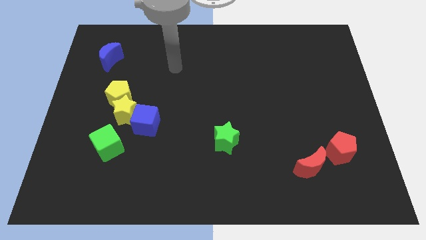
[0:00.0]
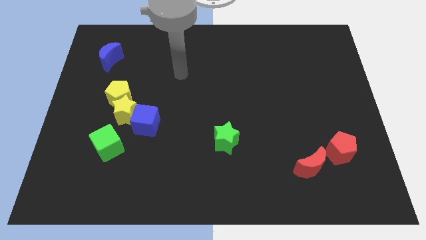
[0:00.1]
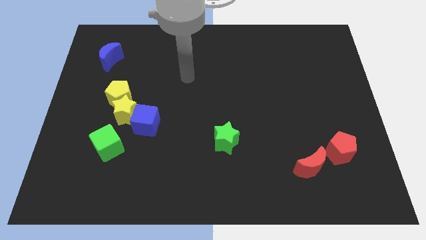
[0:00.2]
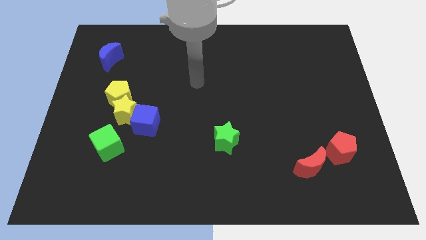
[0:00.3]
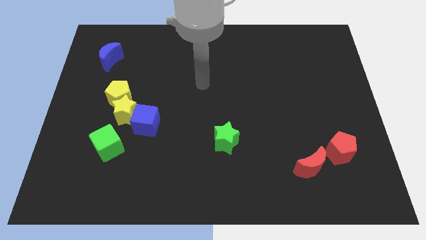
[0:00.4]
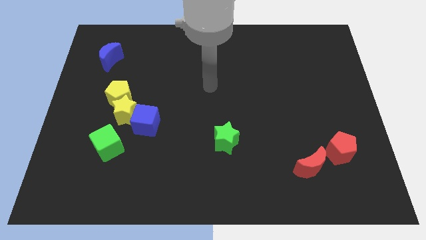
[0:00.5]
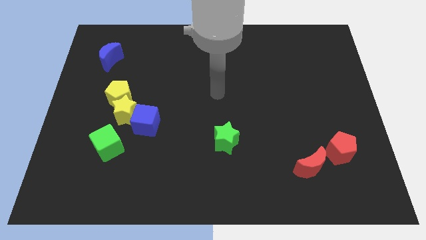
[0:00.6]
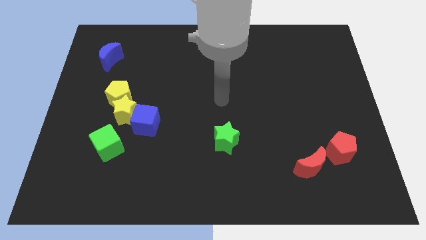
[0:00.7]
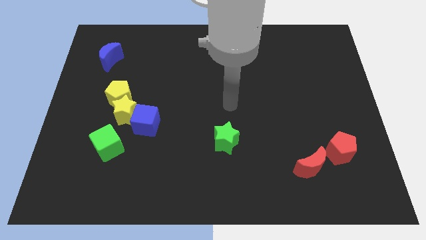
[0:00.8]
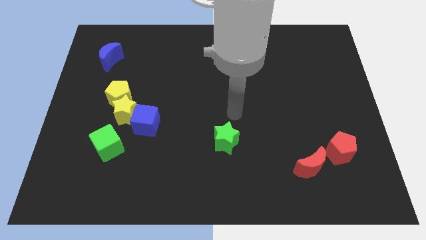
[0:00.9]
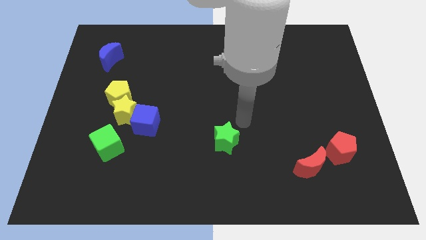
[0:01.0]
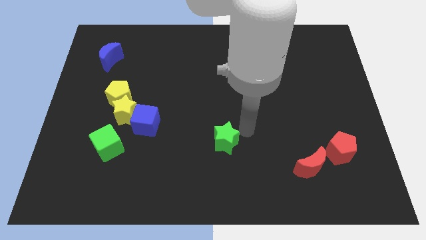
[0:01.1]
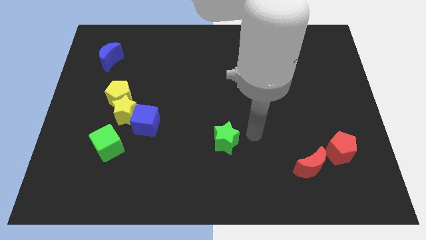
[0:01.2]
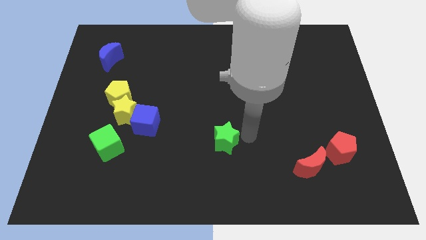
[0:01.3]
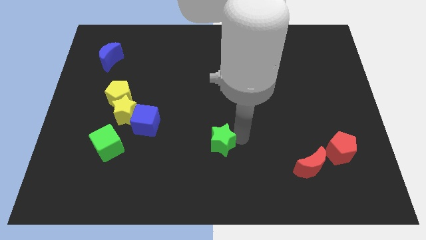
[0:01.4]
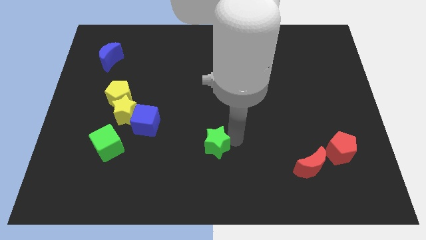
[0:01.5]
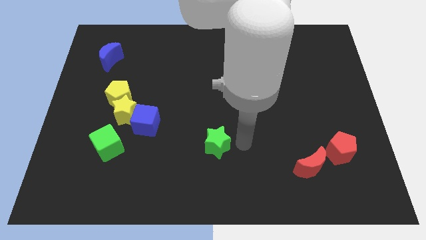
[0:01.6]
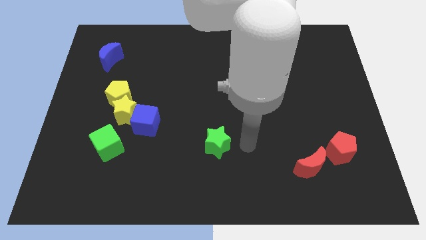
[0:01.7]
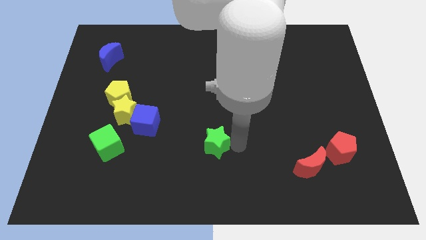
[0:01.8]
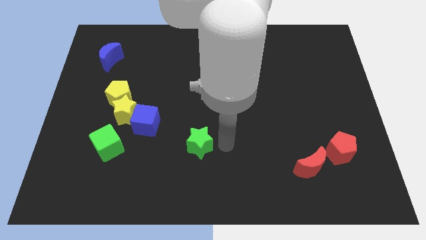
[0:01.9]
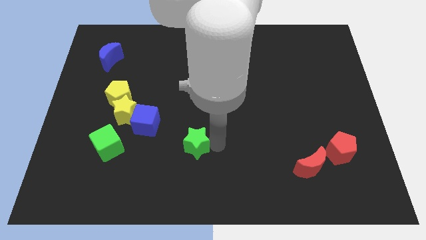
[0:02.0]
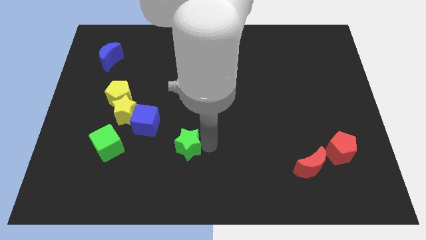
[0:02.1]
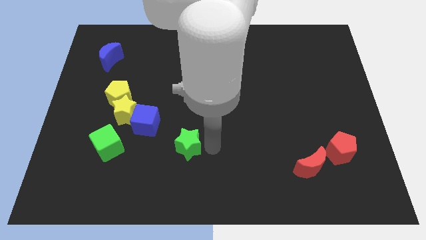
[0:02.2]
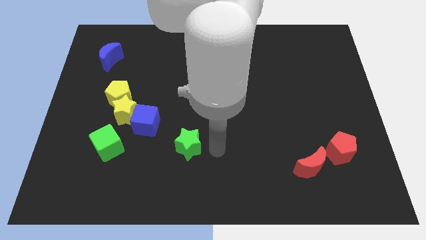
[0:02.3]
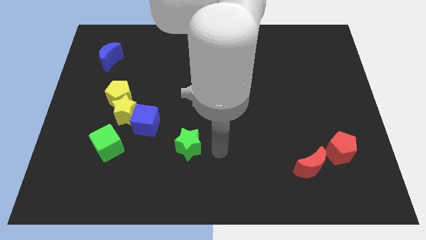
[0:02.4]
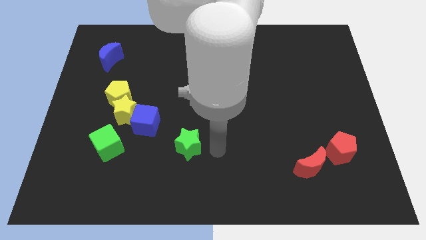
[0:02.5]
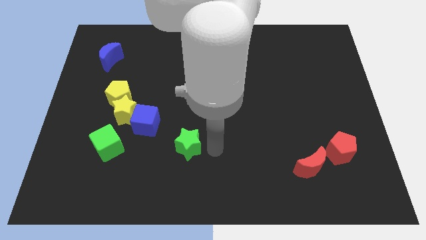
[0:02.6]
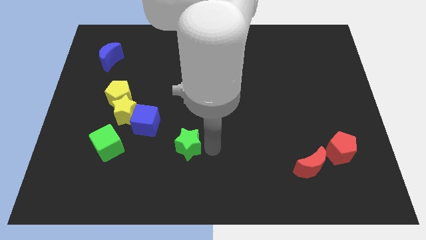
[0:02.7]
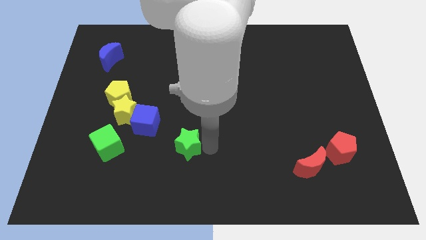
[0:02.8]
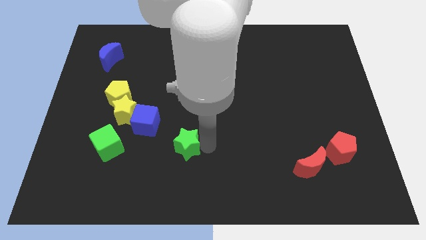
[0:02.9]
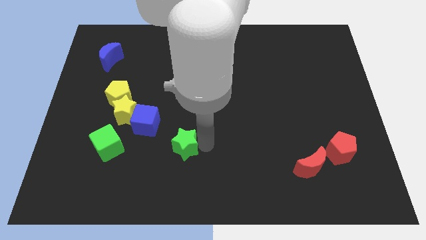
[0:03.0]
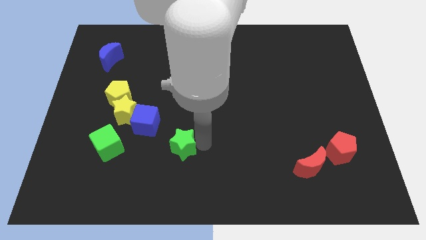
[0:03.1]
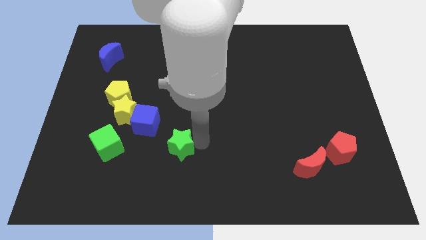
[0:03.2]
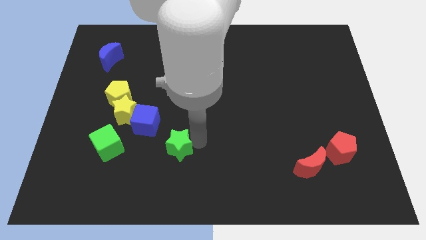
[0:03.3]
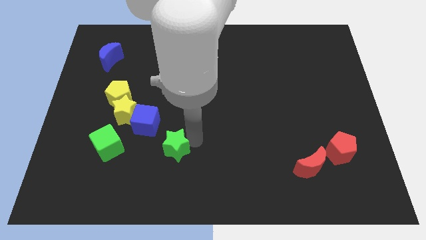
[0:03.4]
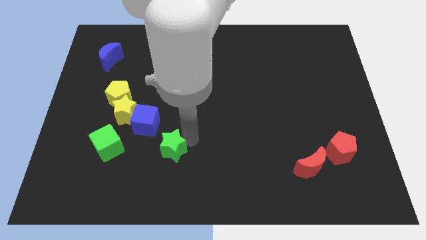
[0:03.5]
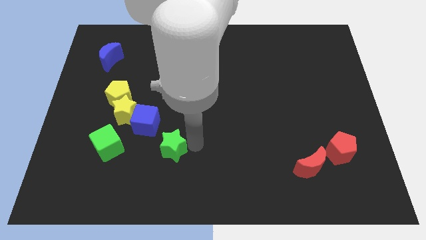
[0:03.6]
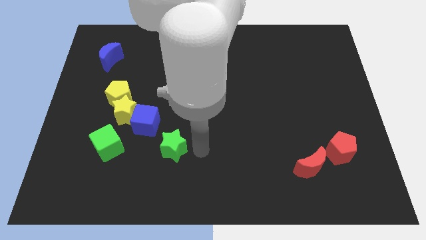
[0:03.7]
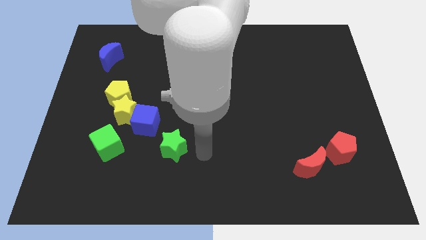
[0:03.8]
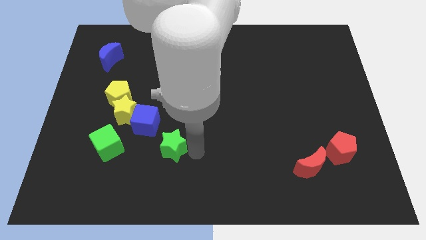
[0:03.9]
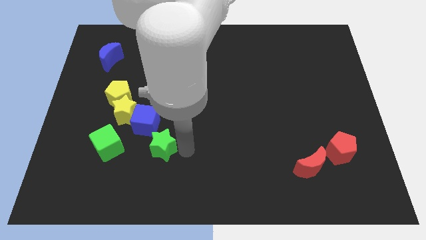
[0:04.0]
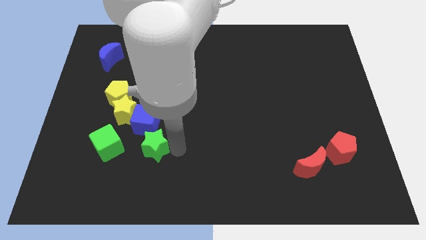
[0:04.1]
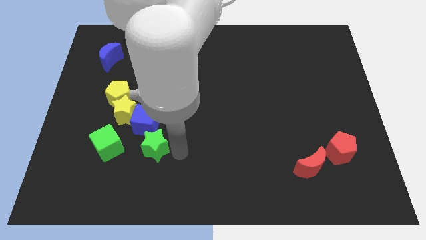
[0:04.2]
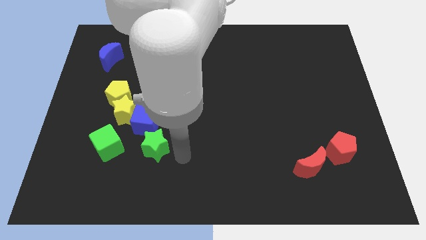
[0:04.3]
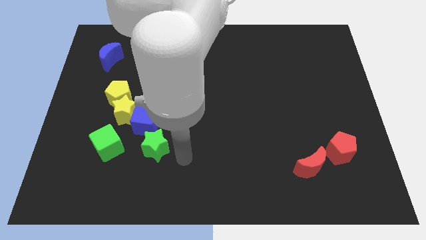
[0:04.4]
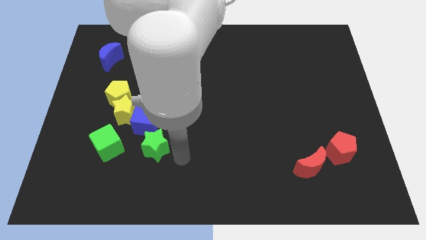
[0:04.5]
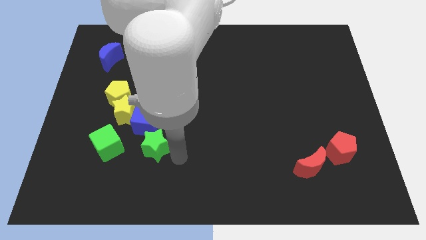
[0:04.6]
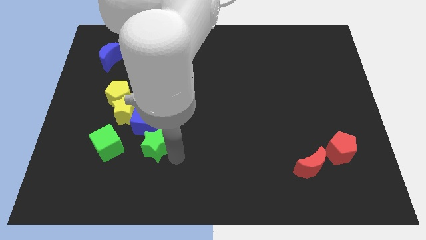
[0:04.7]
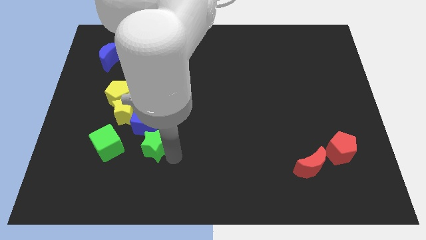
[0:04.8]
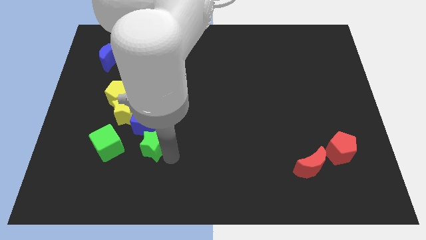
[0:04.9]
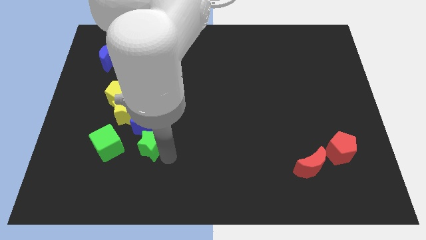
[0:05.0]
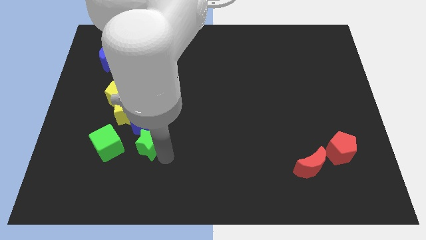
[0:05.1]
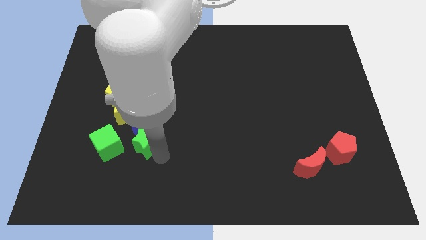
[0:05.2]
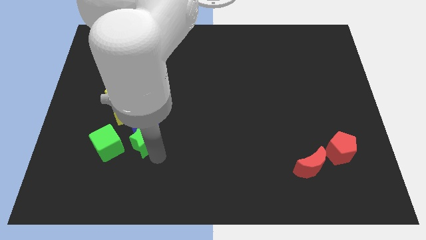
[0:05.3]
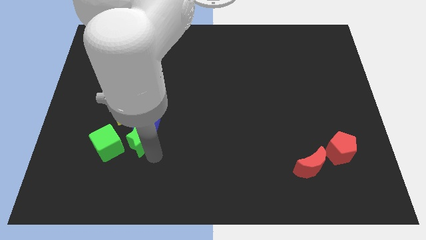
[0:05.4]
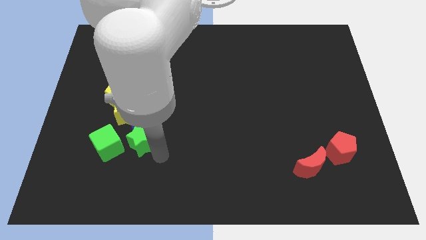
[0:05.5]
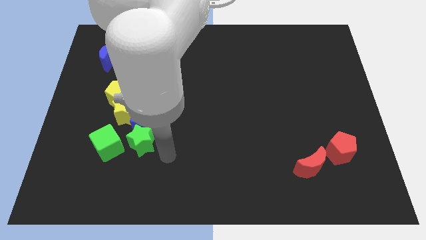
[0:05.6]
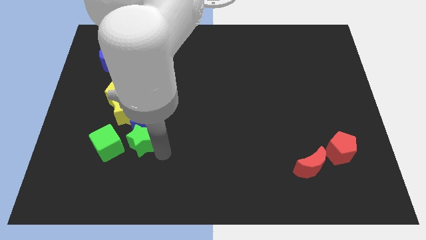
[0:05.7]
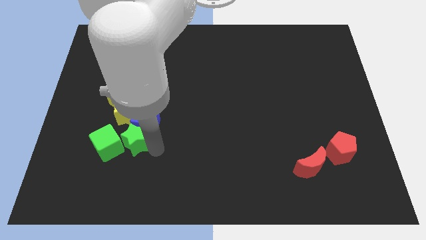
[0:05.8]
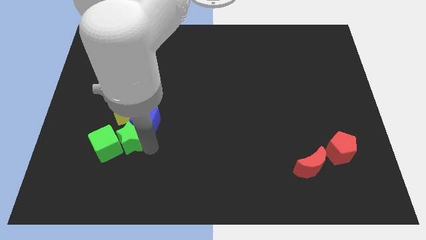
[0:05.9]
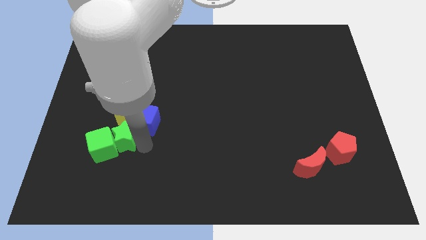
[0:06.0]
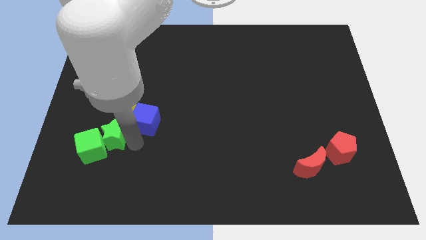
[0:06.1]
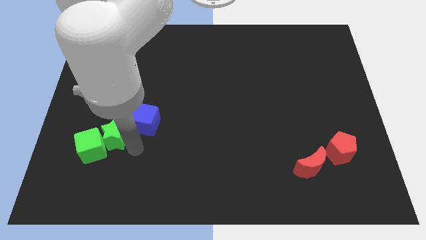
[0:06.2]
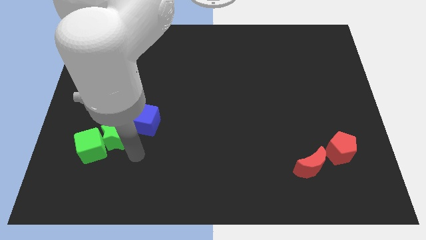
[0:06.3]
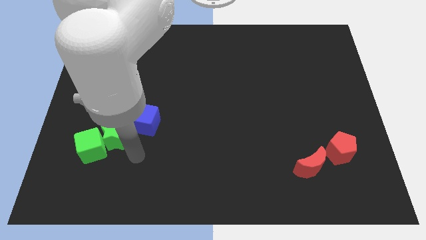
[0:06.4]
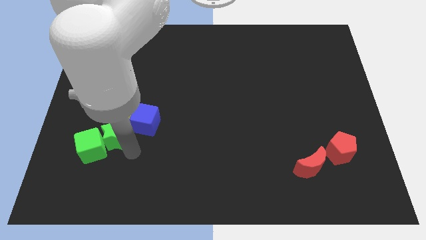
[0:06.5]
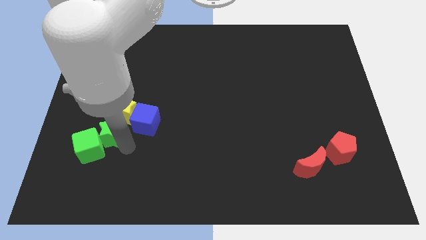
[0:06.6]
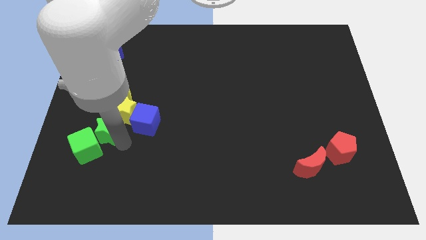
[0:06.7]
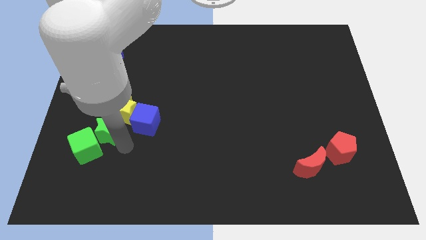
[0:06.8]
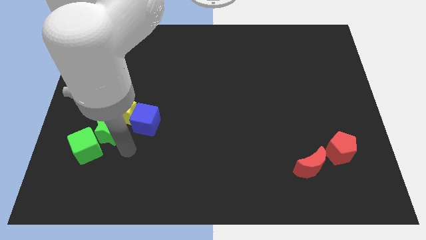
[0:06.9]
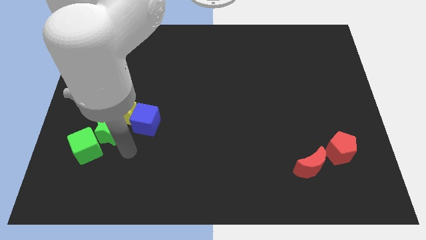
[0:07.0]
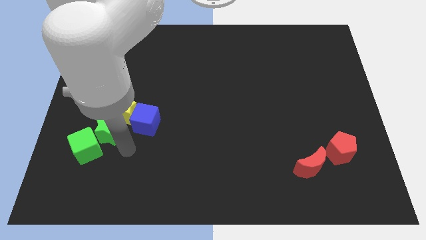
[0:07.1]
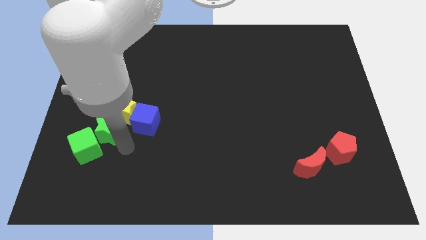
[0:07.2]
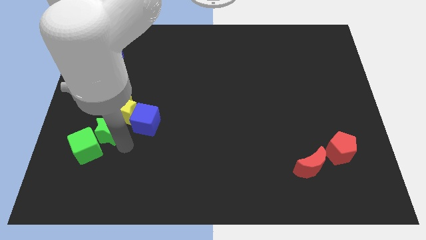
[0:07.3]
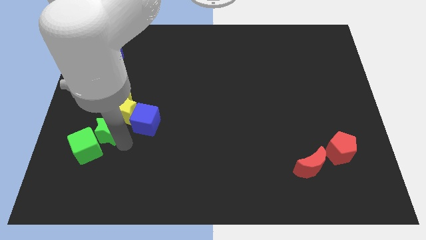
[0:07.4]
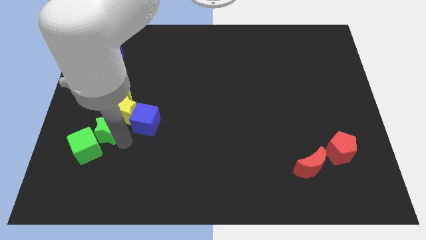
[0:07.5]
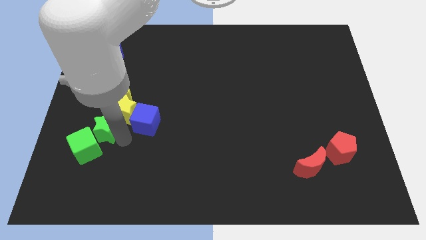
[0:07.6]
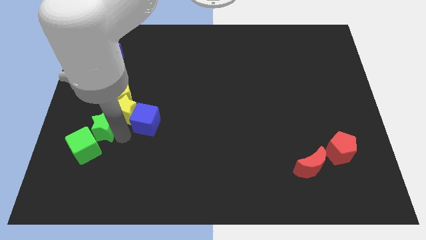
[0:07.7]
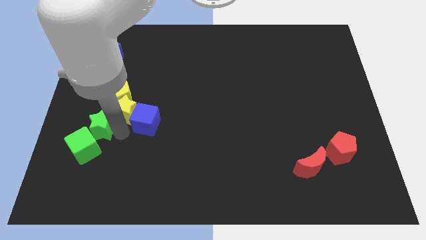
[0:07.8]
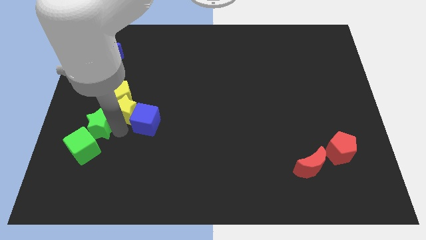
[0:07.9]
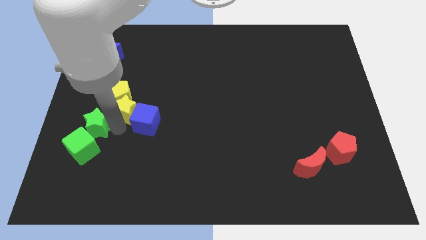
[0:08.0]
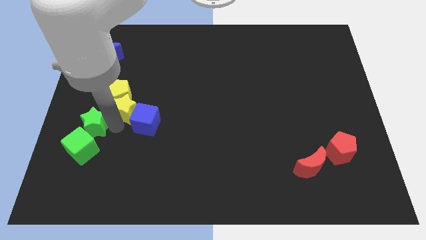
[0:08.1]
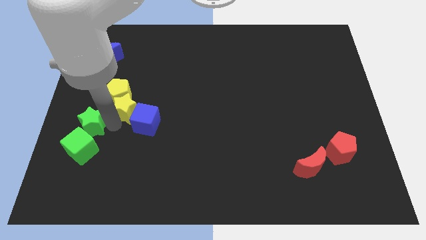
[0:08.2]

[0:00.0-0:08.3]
move the green star to the center left
